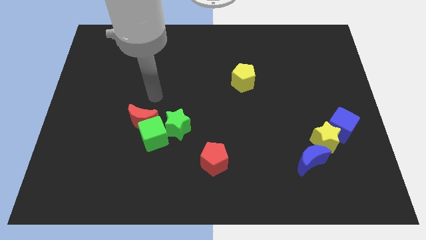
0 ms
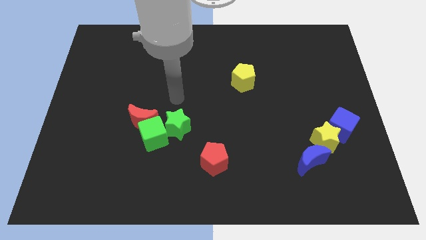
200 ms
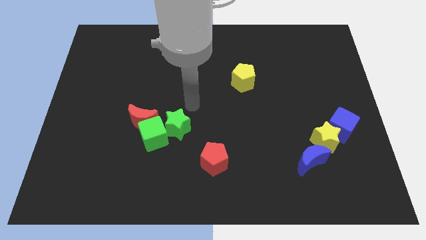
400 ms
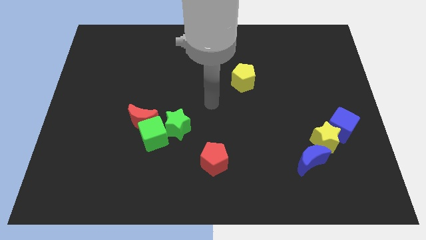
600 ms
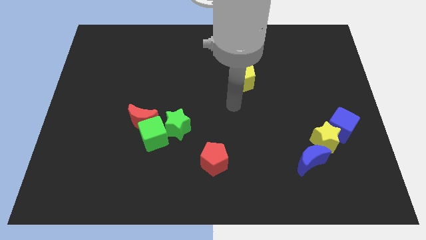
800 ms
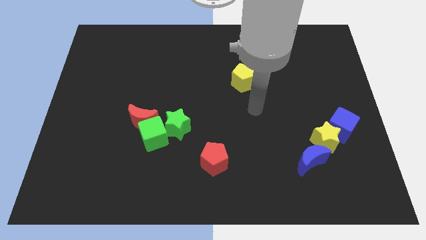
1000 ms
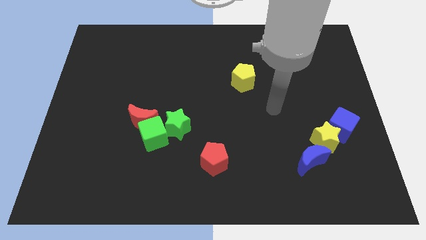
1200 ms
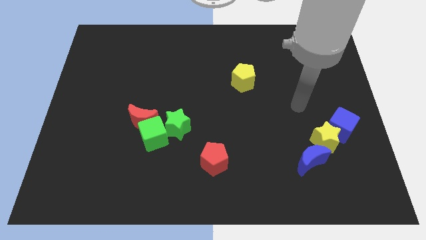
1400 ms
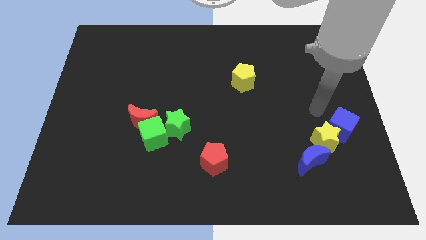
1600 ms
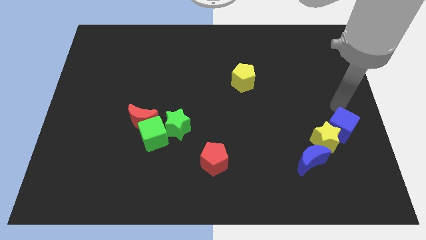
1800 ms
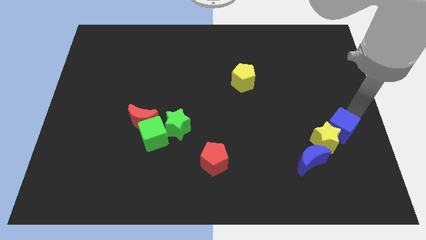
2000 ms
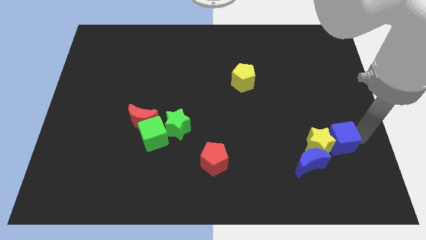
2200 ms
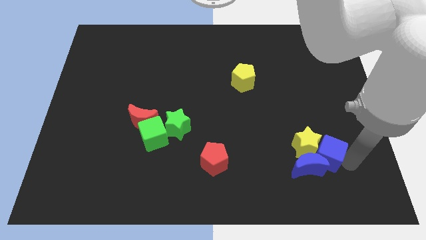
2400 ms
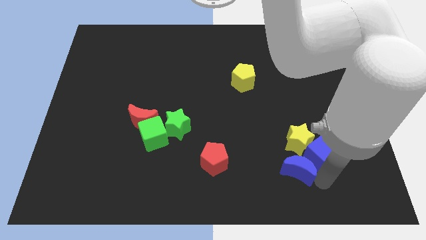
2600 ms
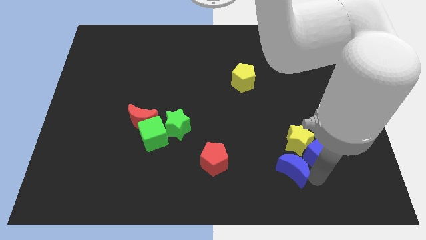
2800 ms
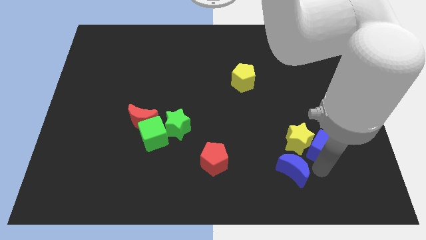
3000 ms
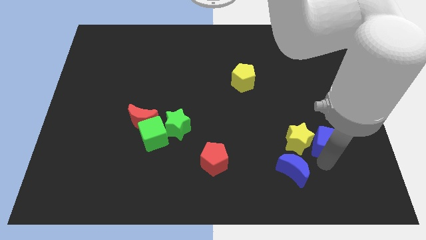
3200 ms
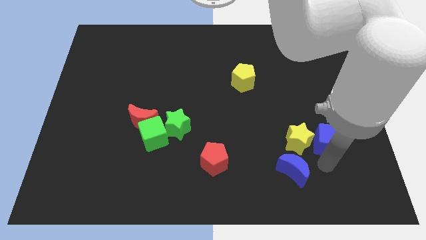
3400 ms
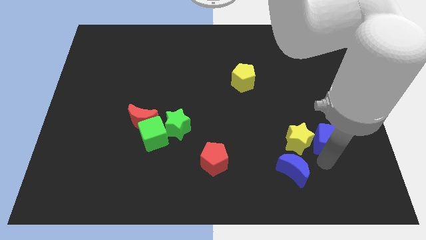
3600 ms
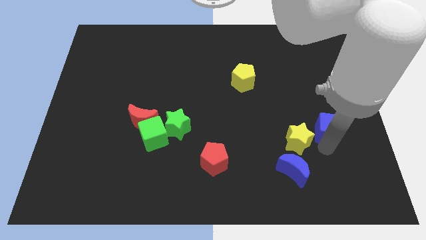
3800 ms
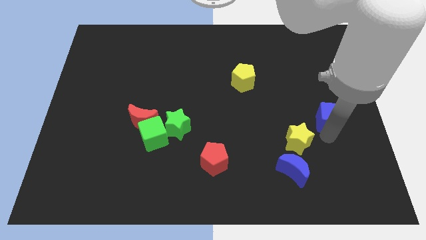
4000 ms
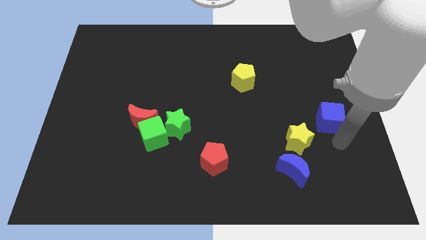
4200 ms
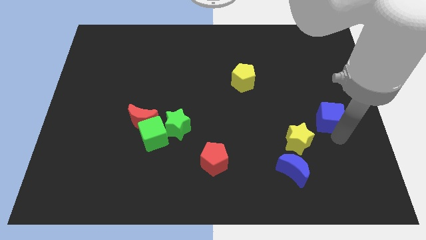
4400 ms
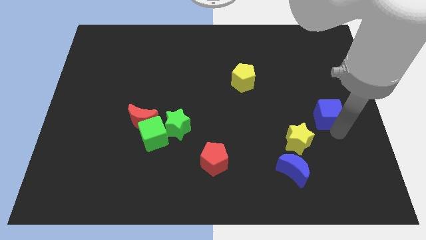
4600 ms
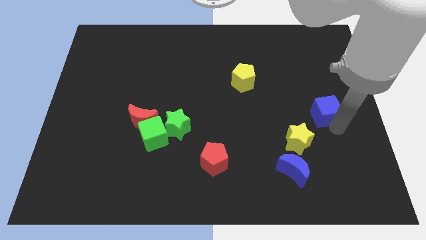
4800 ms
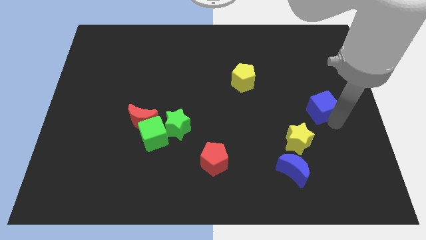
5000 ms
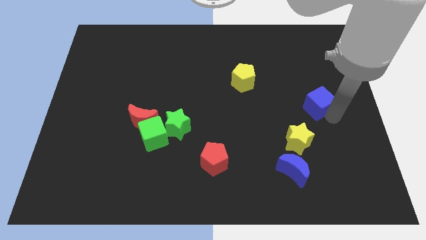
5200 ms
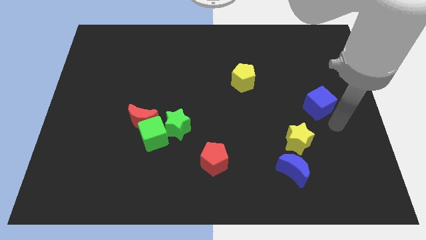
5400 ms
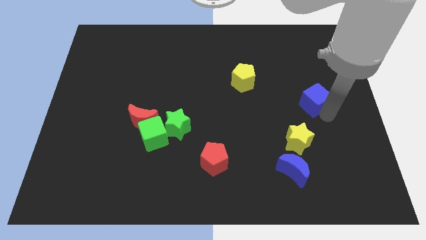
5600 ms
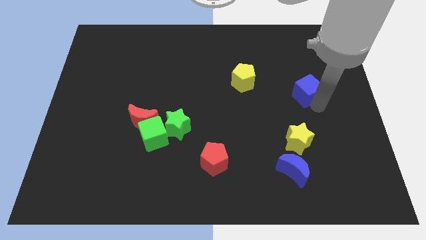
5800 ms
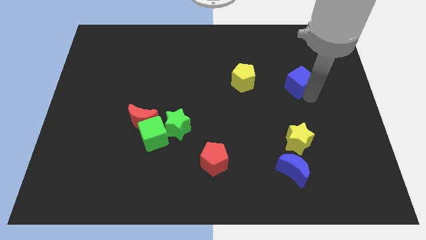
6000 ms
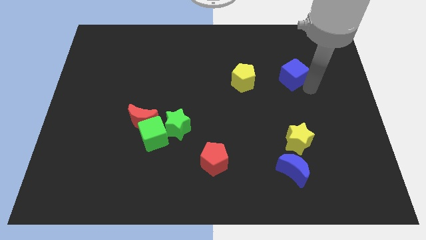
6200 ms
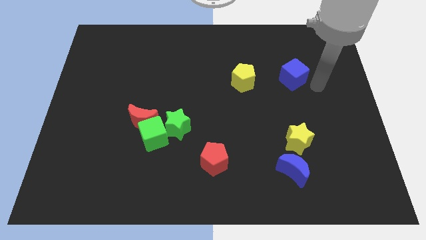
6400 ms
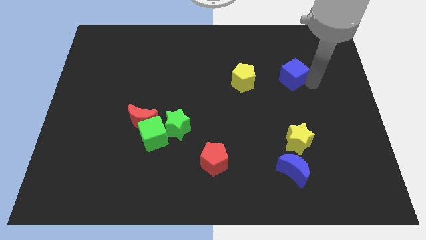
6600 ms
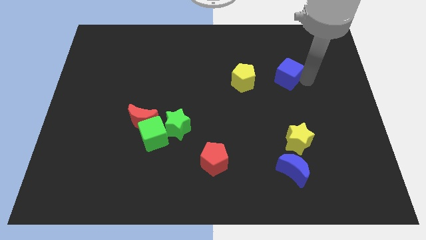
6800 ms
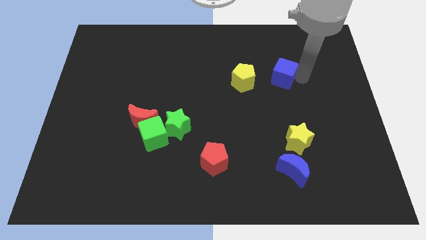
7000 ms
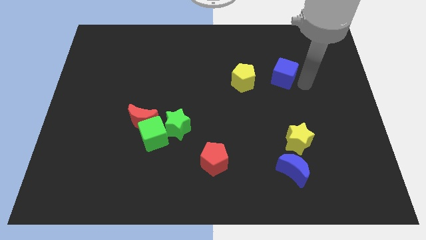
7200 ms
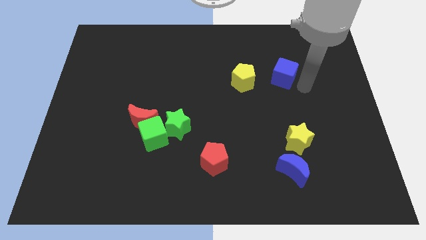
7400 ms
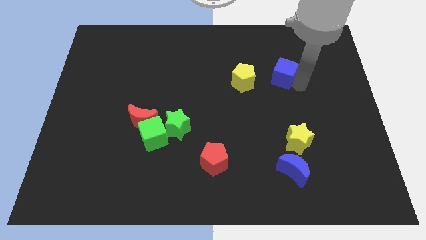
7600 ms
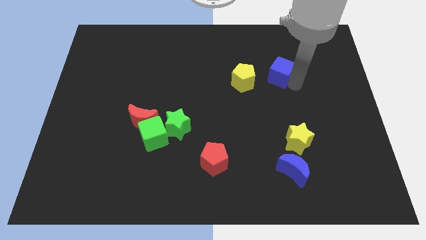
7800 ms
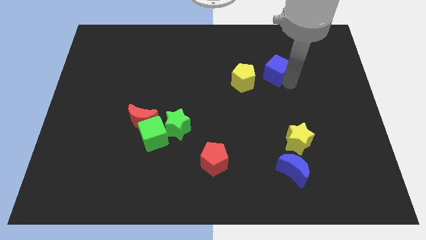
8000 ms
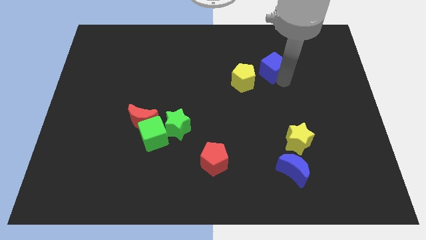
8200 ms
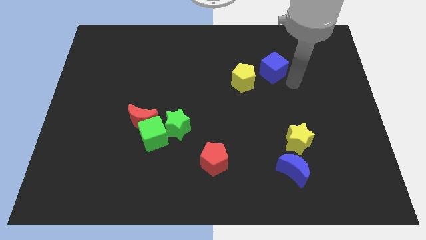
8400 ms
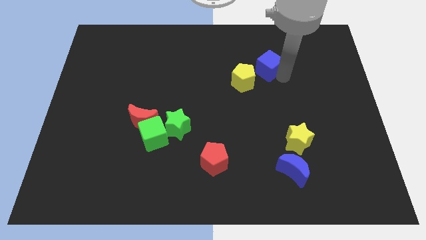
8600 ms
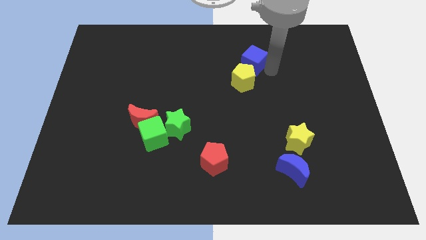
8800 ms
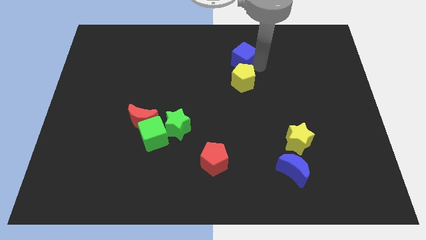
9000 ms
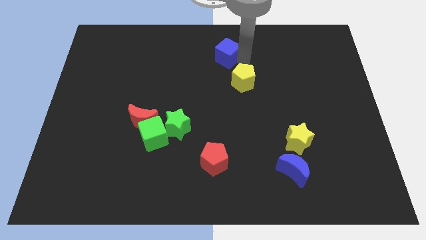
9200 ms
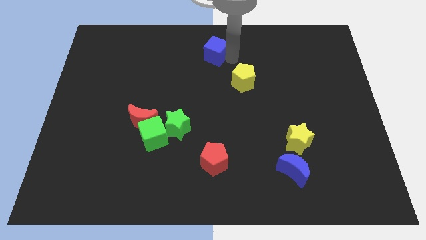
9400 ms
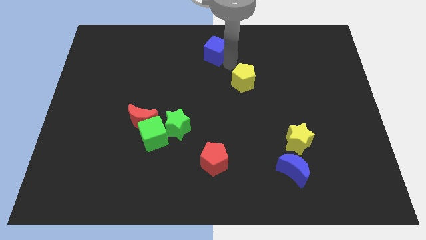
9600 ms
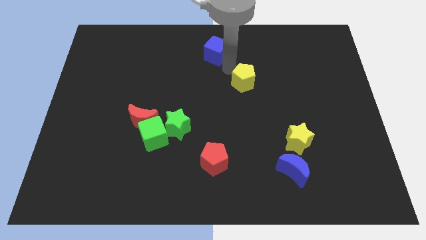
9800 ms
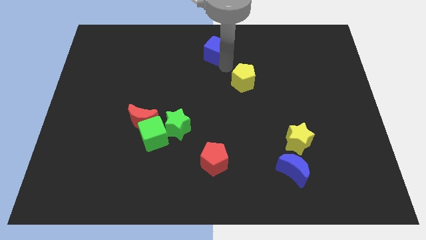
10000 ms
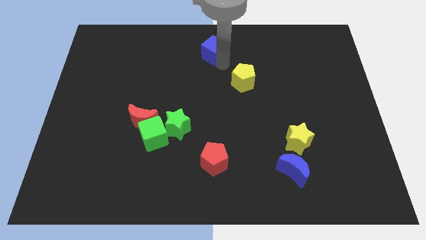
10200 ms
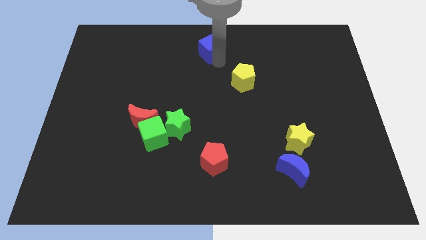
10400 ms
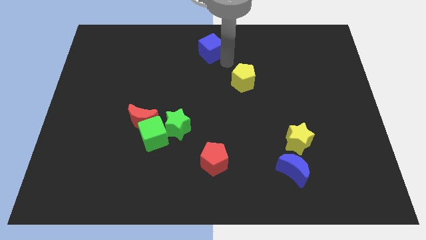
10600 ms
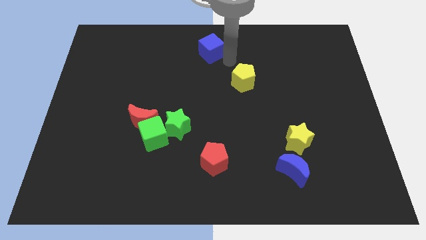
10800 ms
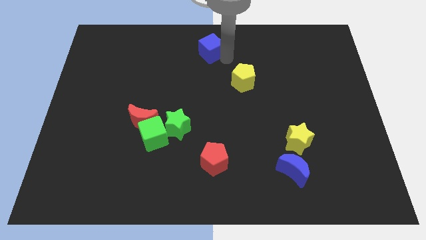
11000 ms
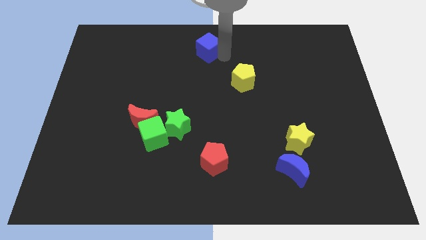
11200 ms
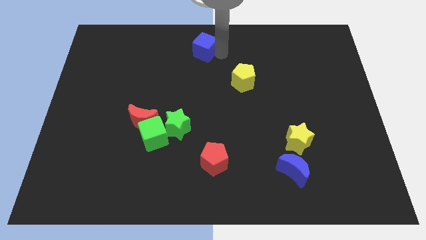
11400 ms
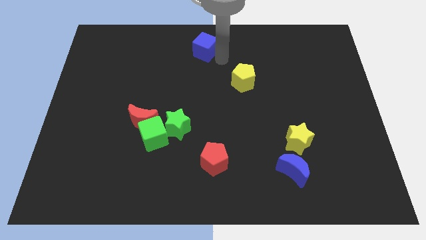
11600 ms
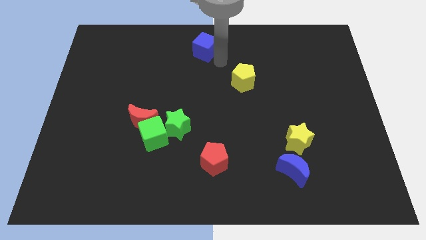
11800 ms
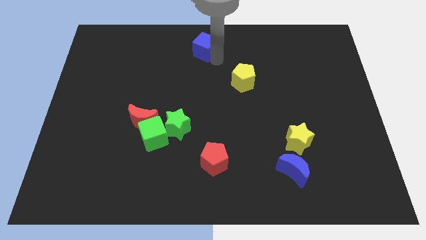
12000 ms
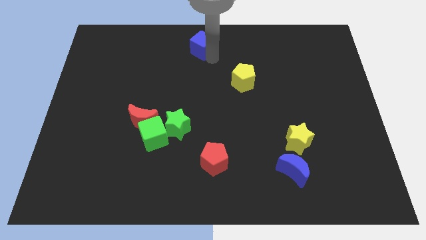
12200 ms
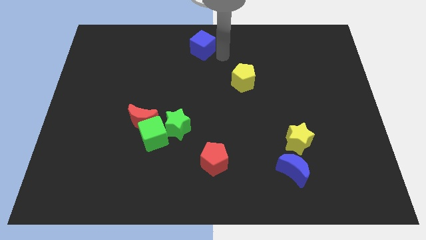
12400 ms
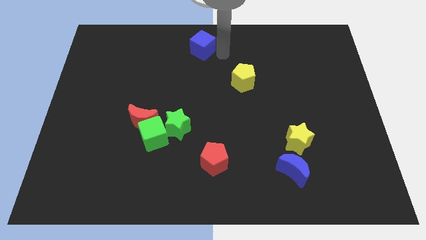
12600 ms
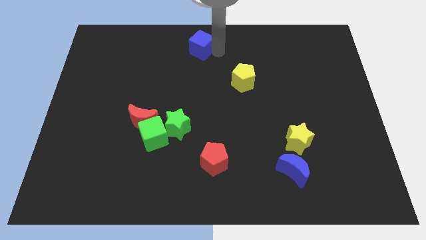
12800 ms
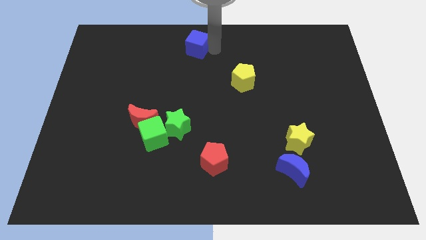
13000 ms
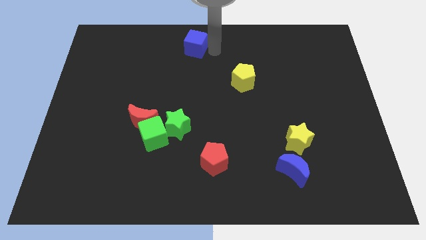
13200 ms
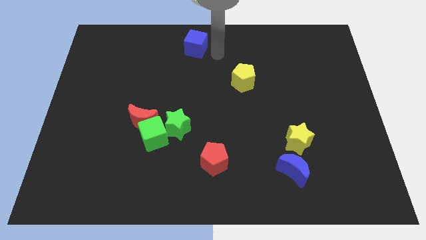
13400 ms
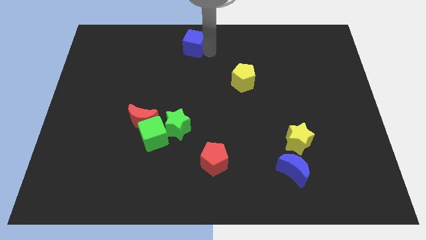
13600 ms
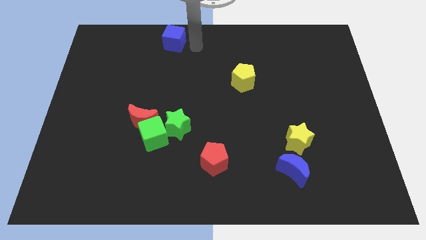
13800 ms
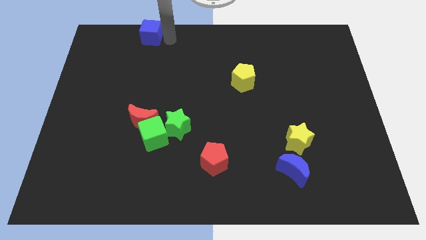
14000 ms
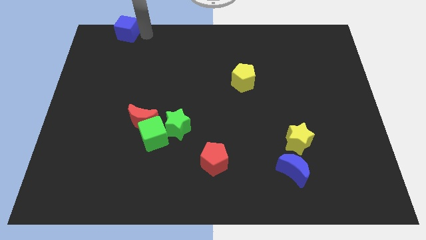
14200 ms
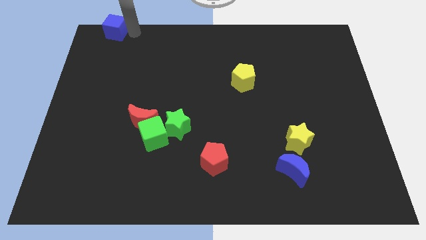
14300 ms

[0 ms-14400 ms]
push the blue cube to the top left corner
